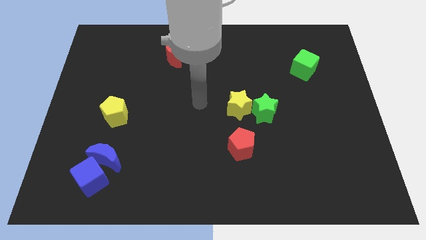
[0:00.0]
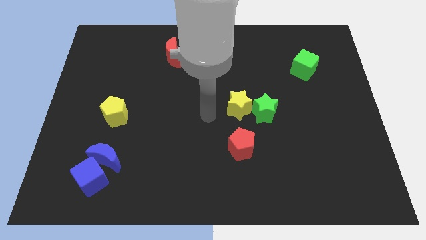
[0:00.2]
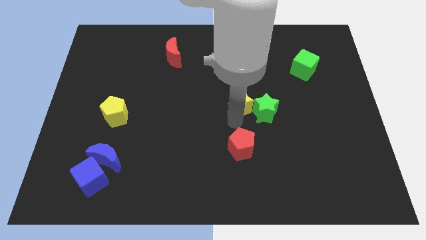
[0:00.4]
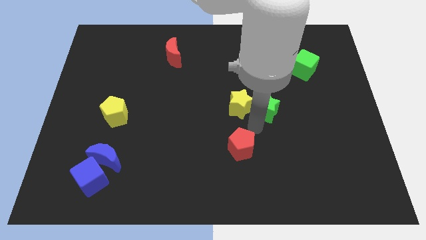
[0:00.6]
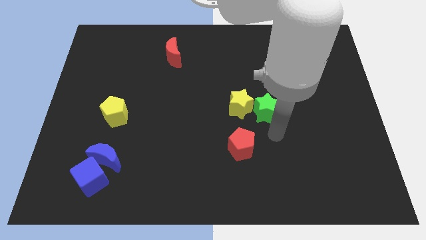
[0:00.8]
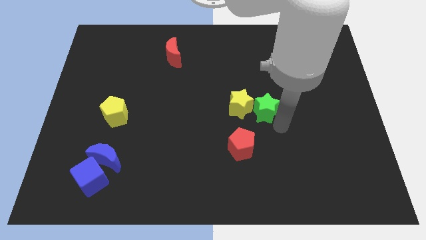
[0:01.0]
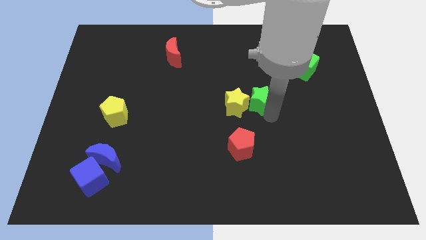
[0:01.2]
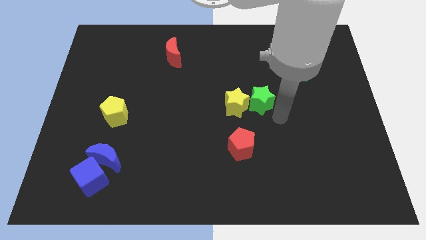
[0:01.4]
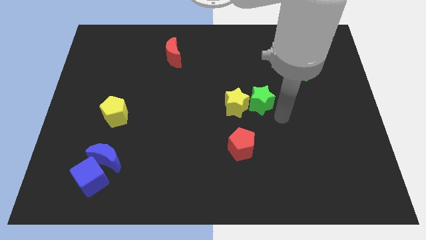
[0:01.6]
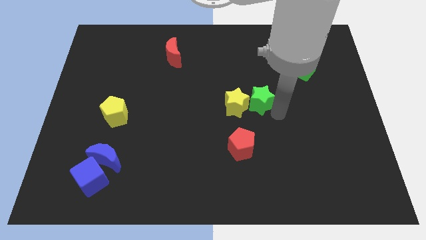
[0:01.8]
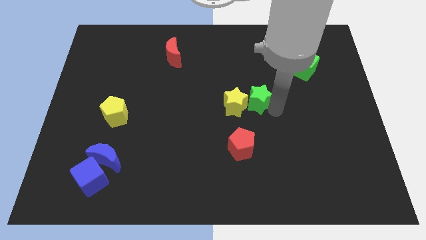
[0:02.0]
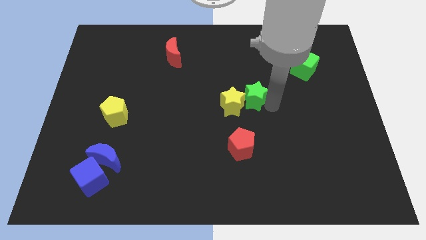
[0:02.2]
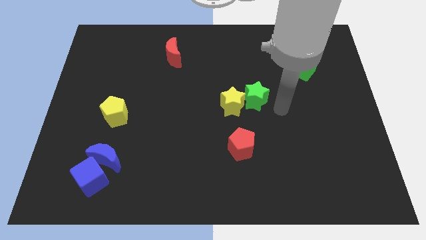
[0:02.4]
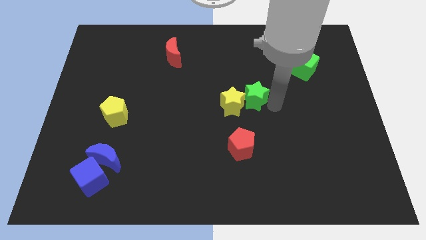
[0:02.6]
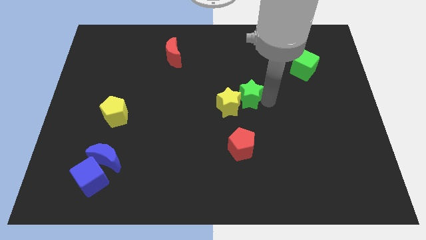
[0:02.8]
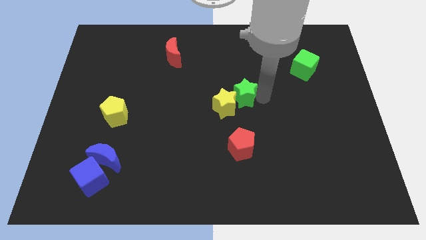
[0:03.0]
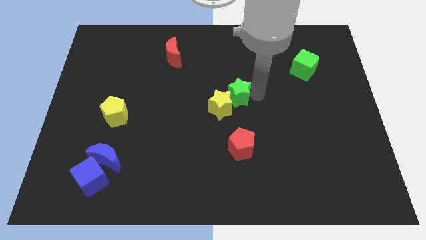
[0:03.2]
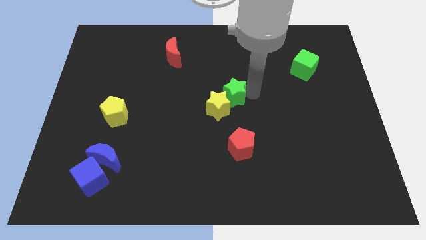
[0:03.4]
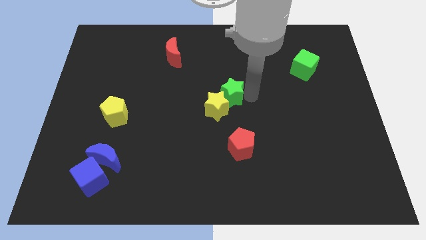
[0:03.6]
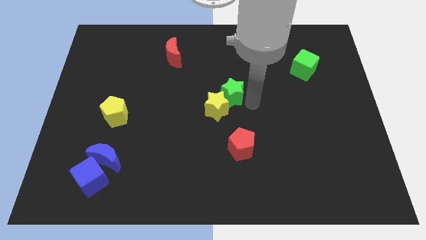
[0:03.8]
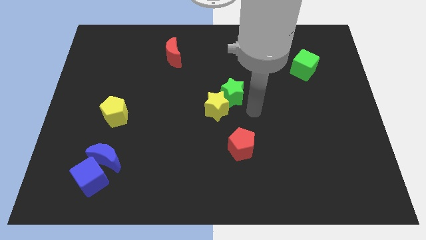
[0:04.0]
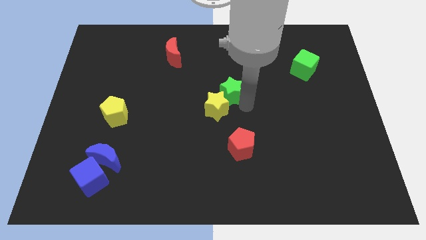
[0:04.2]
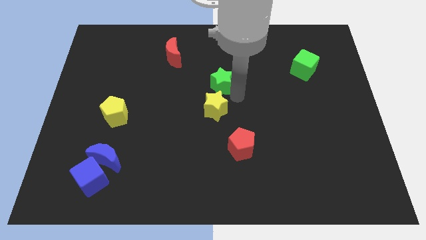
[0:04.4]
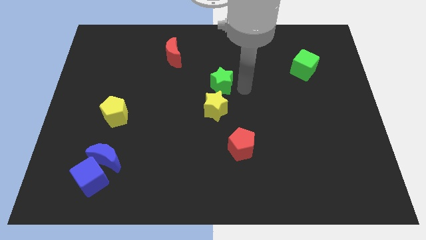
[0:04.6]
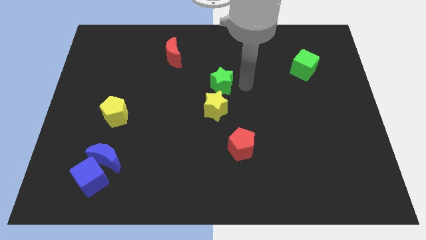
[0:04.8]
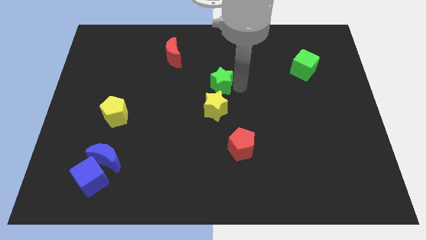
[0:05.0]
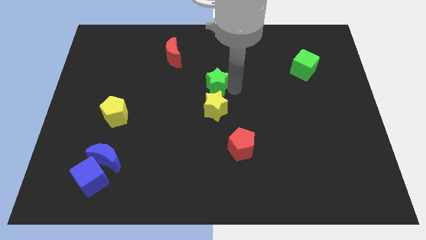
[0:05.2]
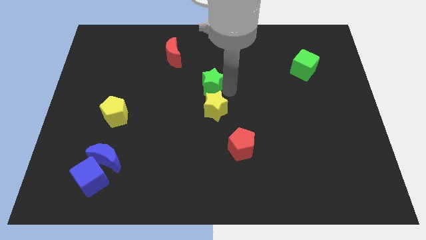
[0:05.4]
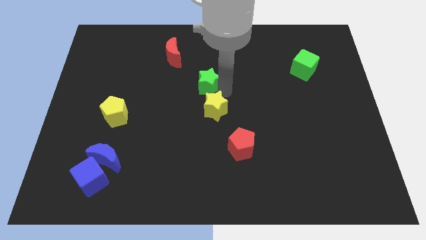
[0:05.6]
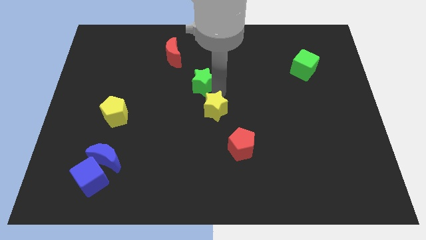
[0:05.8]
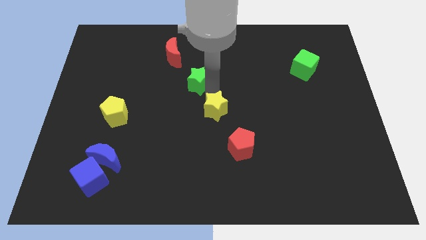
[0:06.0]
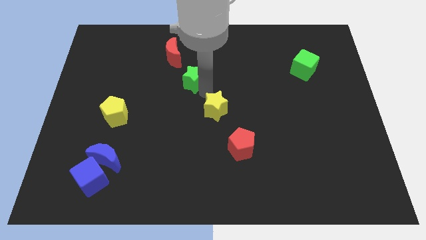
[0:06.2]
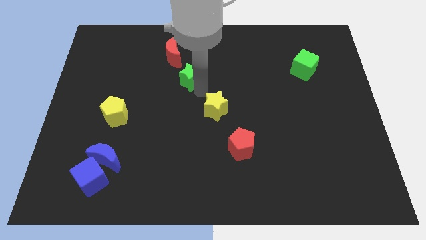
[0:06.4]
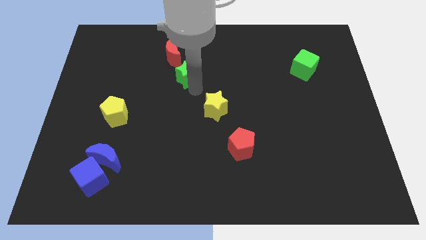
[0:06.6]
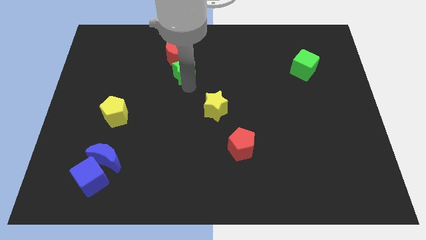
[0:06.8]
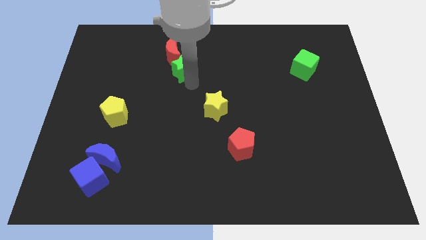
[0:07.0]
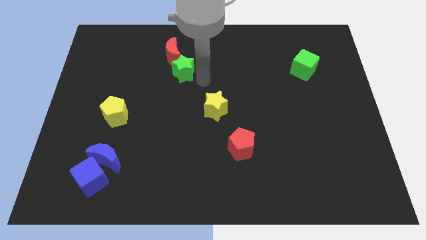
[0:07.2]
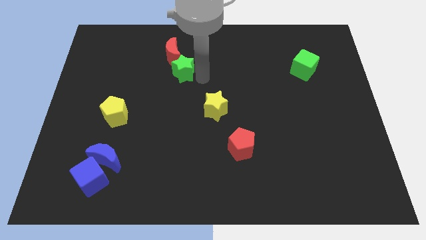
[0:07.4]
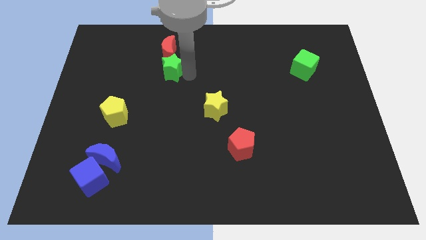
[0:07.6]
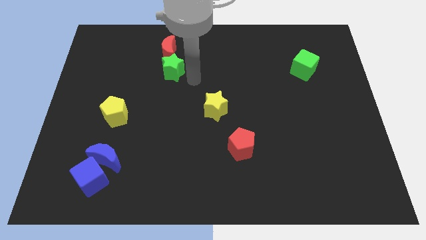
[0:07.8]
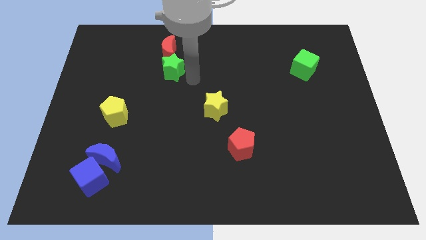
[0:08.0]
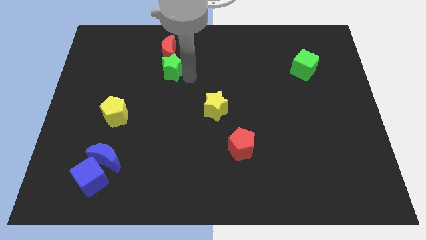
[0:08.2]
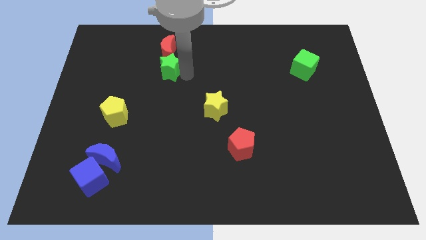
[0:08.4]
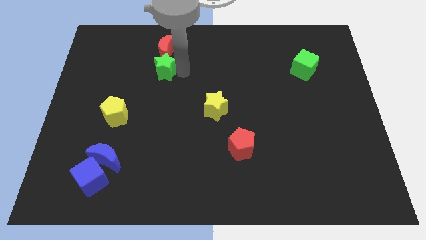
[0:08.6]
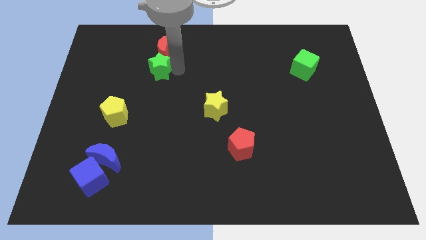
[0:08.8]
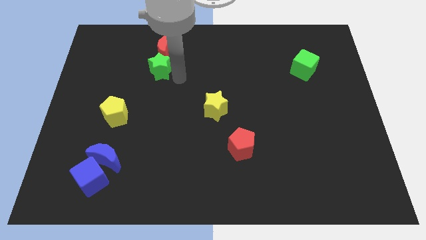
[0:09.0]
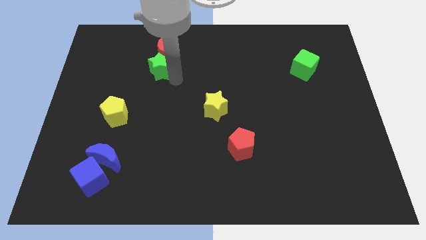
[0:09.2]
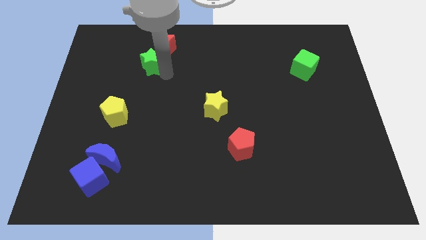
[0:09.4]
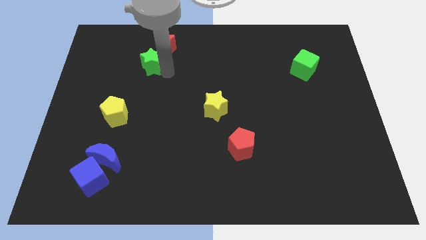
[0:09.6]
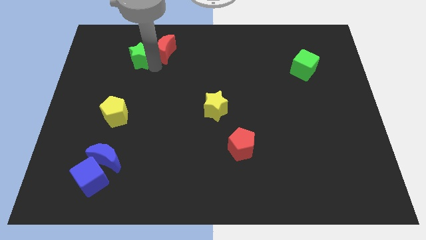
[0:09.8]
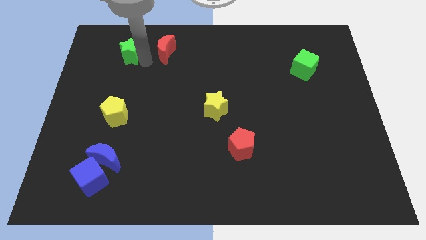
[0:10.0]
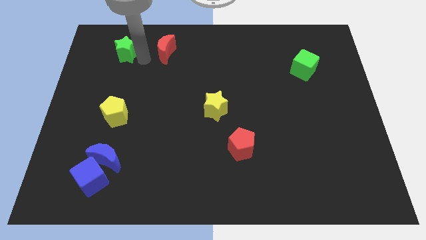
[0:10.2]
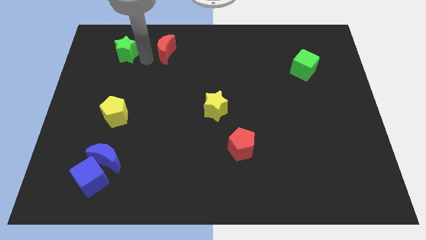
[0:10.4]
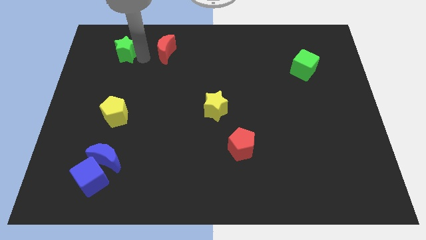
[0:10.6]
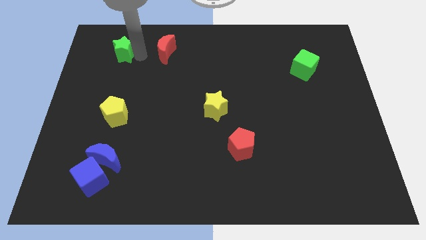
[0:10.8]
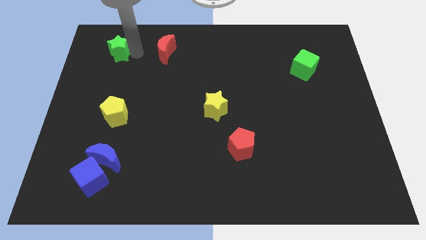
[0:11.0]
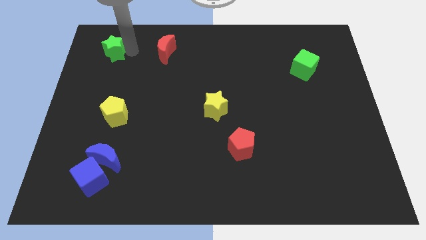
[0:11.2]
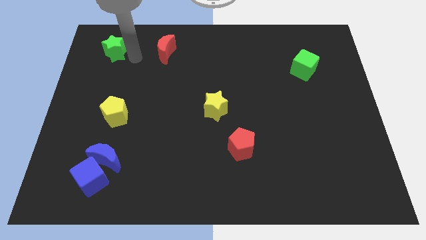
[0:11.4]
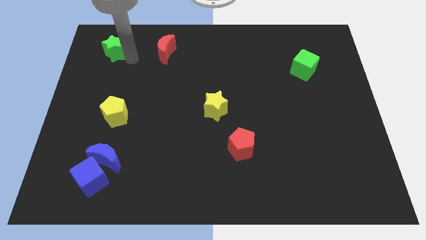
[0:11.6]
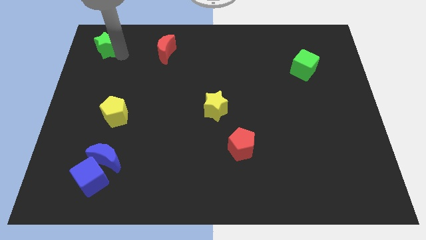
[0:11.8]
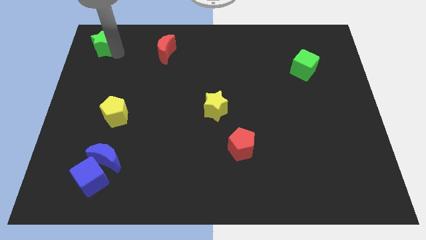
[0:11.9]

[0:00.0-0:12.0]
push the green star to the top left corner

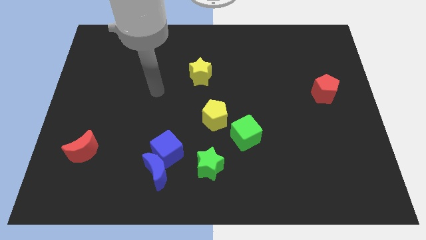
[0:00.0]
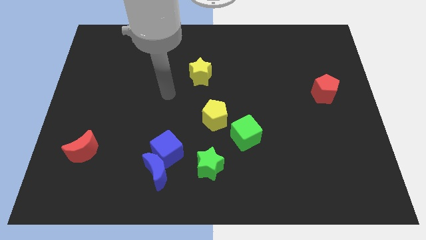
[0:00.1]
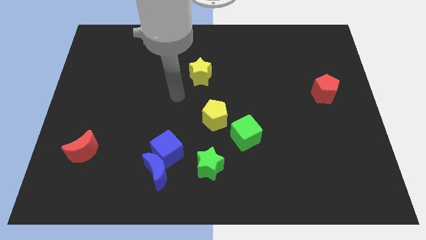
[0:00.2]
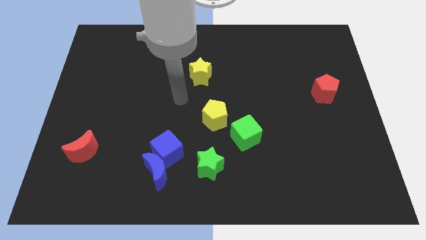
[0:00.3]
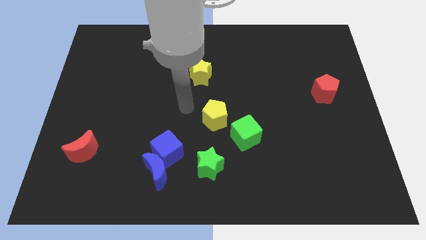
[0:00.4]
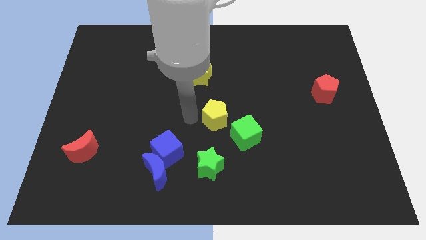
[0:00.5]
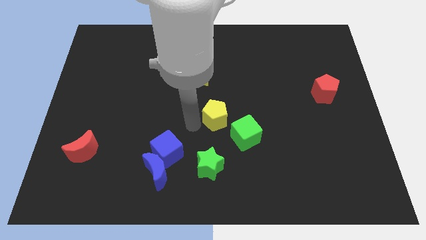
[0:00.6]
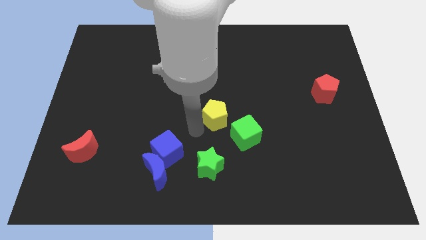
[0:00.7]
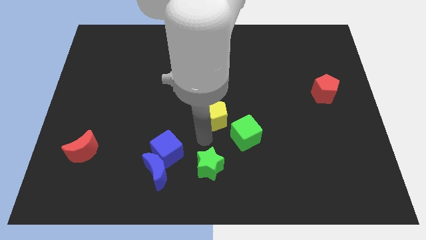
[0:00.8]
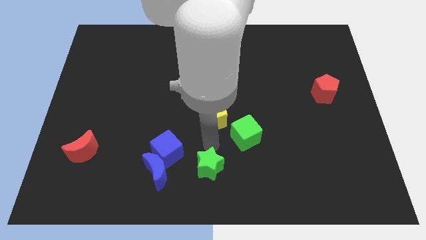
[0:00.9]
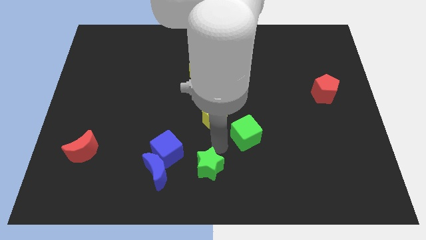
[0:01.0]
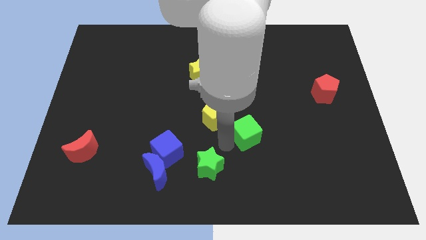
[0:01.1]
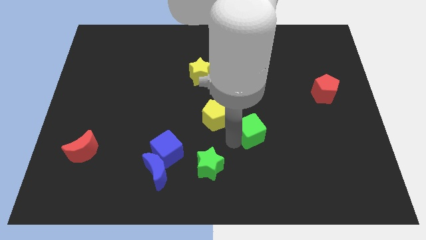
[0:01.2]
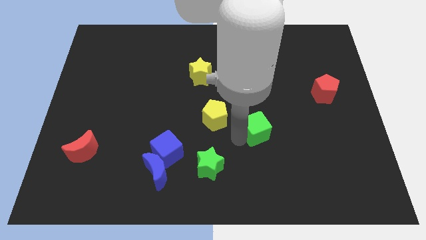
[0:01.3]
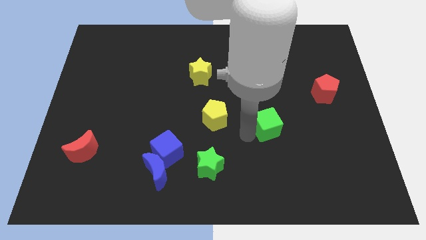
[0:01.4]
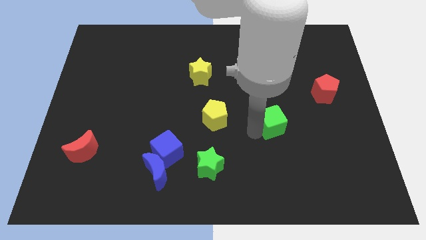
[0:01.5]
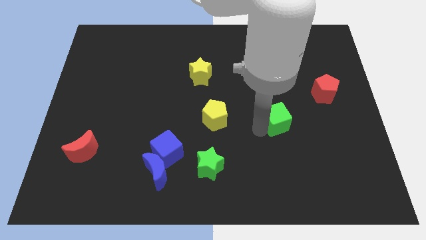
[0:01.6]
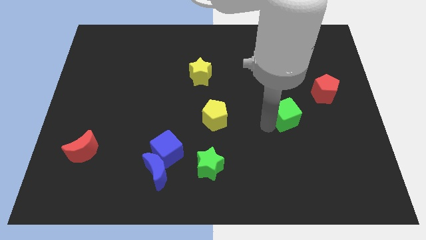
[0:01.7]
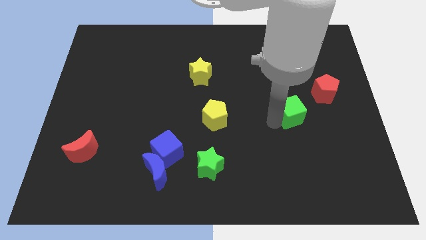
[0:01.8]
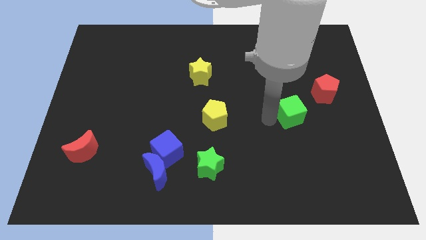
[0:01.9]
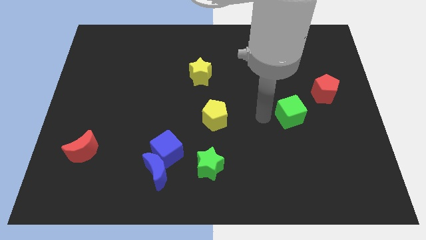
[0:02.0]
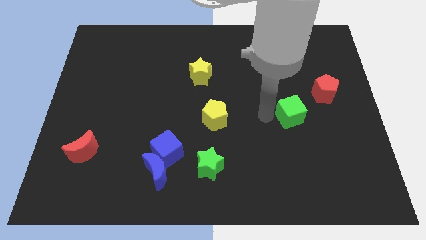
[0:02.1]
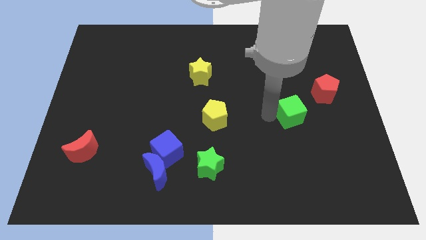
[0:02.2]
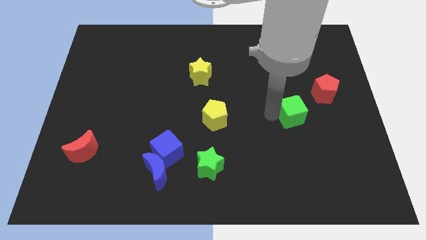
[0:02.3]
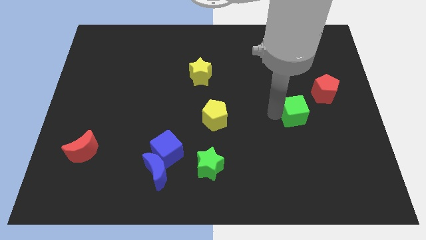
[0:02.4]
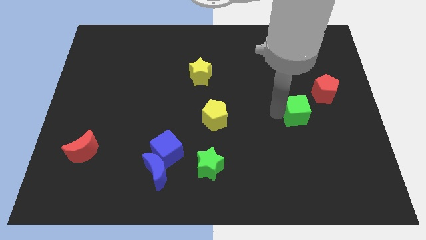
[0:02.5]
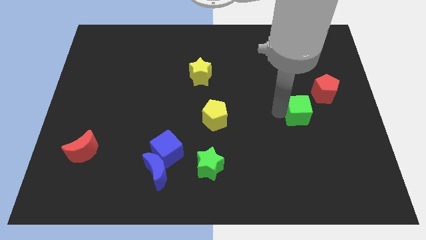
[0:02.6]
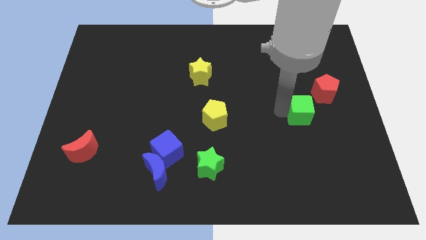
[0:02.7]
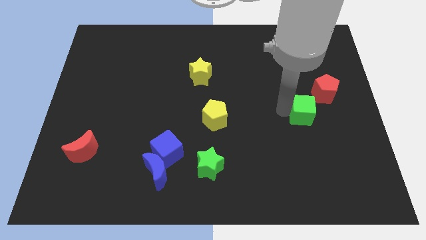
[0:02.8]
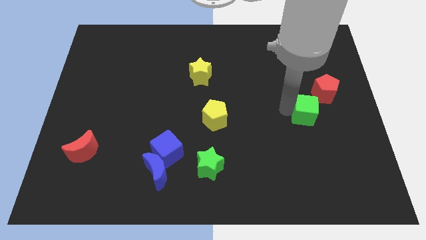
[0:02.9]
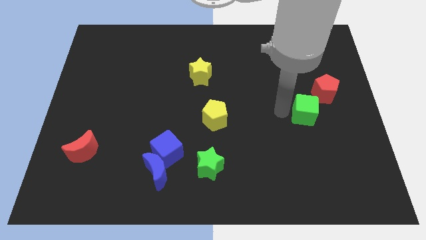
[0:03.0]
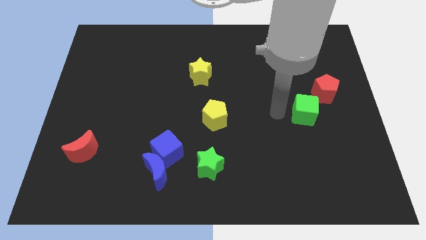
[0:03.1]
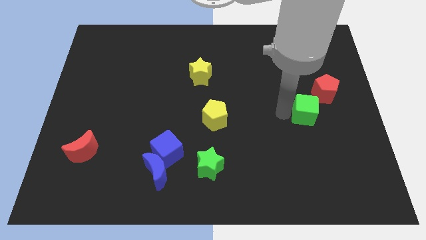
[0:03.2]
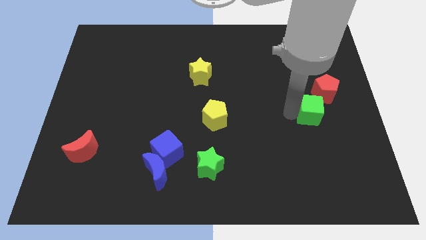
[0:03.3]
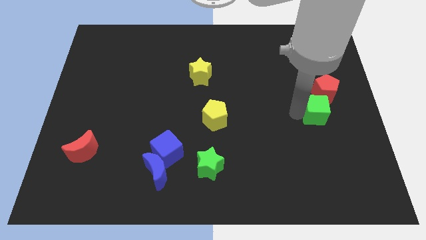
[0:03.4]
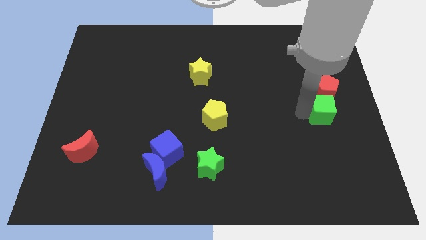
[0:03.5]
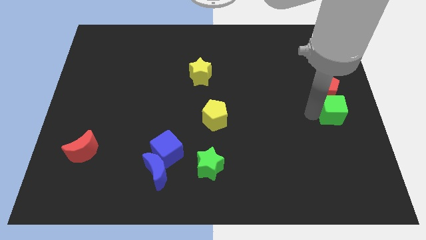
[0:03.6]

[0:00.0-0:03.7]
push the green cube to the right side of the board
